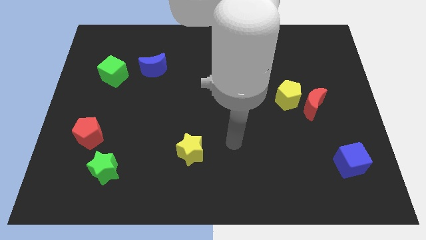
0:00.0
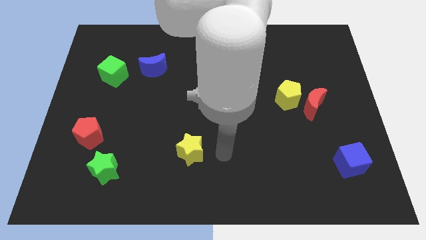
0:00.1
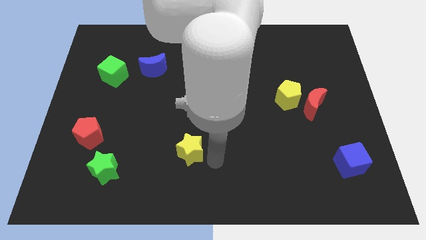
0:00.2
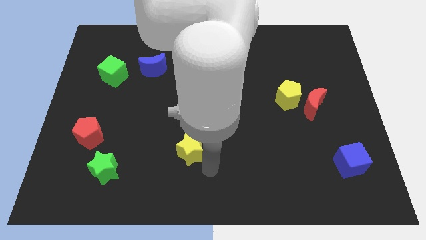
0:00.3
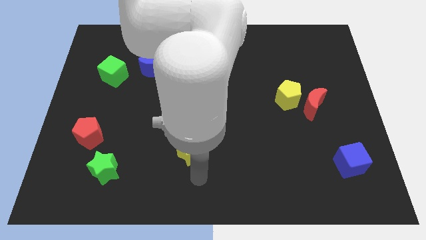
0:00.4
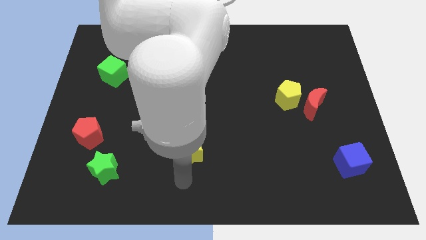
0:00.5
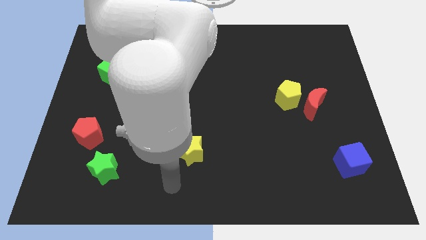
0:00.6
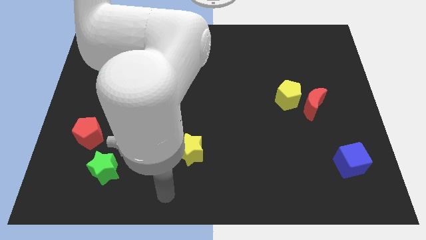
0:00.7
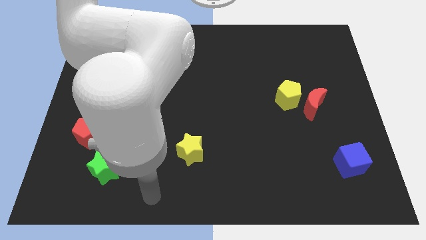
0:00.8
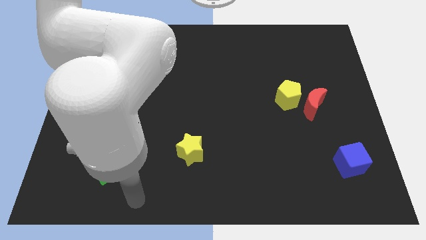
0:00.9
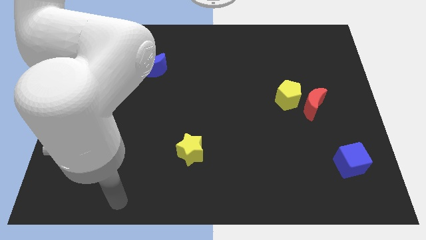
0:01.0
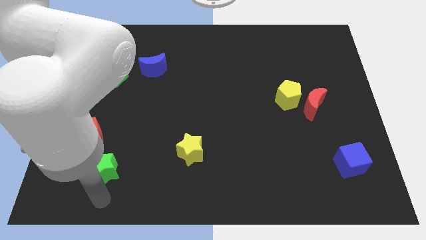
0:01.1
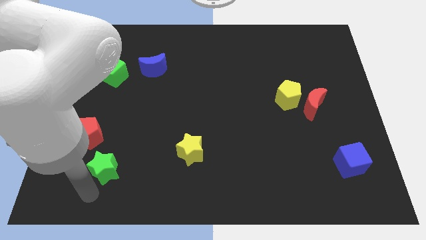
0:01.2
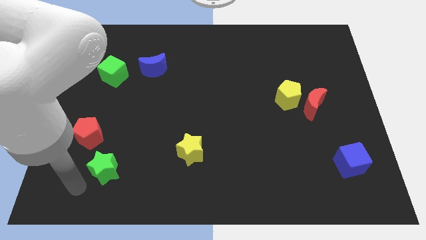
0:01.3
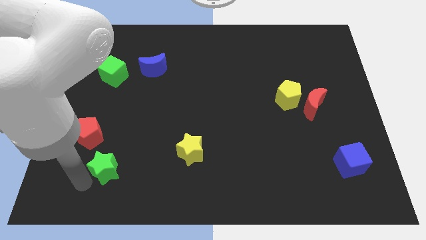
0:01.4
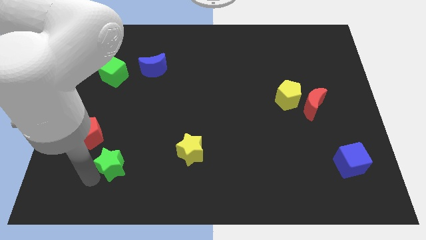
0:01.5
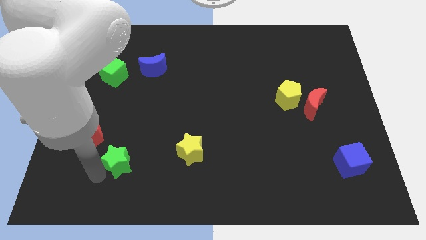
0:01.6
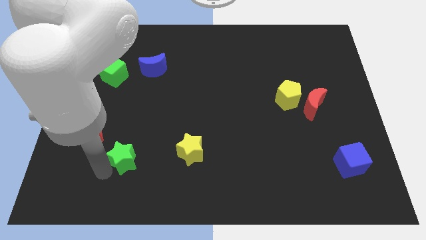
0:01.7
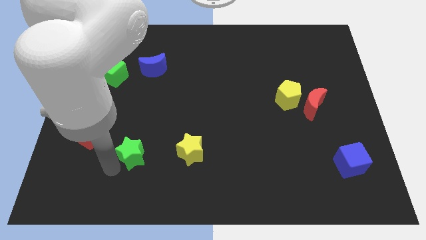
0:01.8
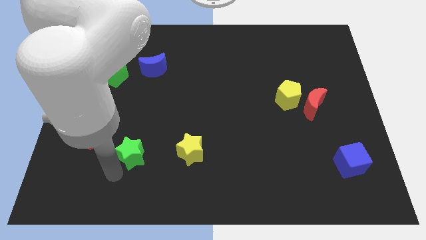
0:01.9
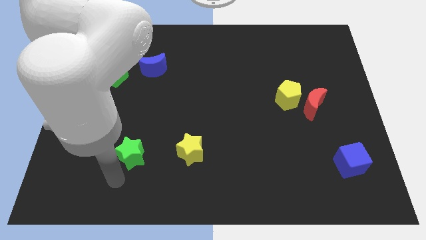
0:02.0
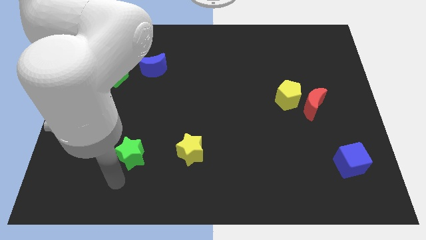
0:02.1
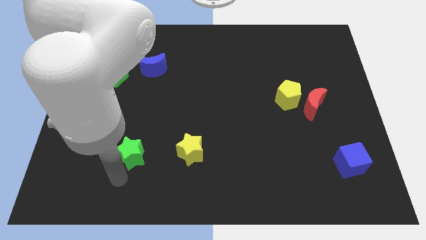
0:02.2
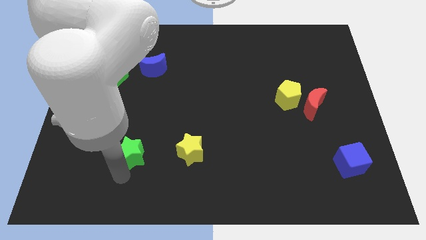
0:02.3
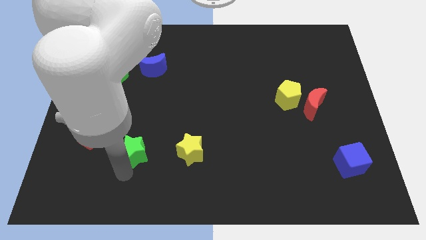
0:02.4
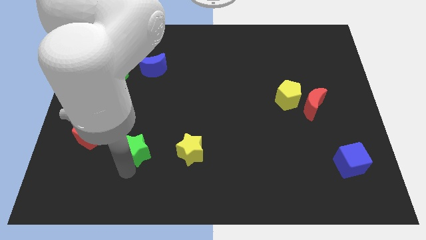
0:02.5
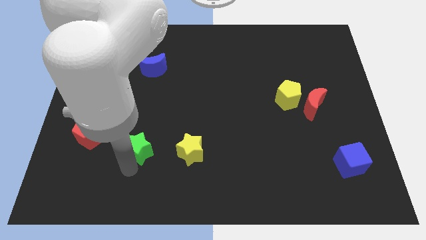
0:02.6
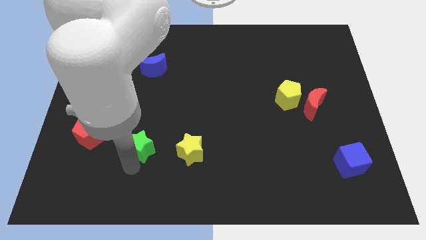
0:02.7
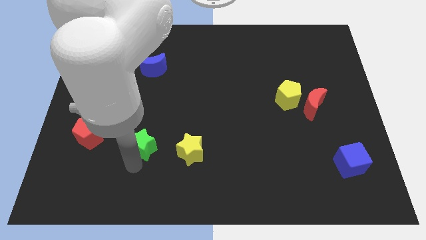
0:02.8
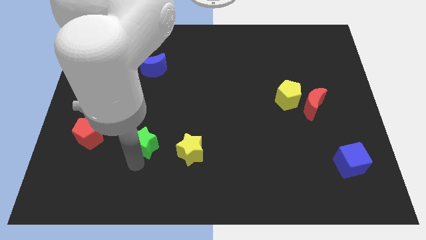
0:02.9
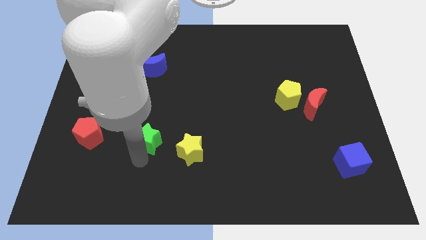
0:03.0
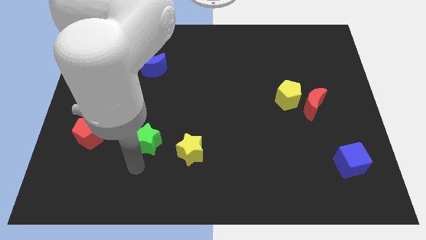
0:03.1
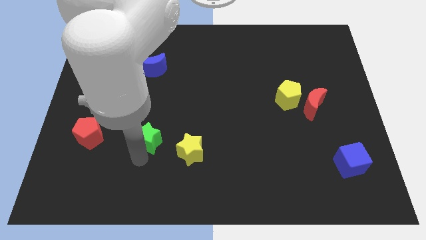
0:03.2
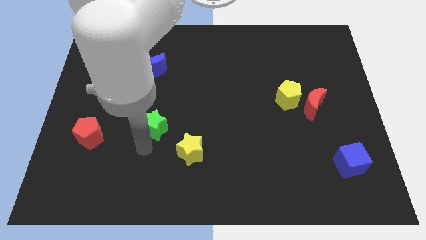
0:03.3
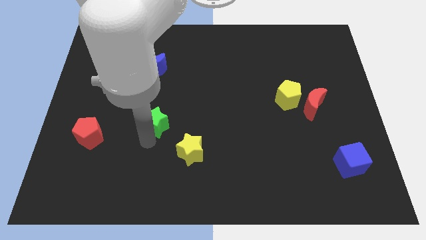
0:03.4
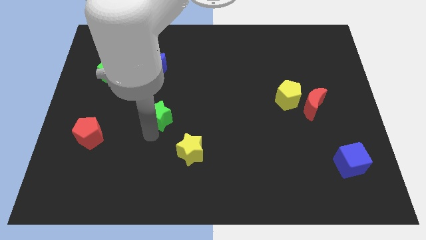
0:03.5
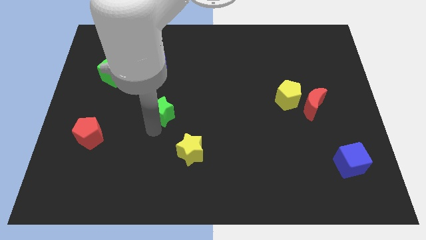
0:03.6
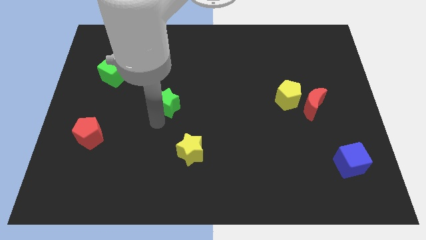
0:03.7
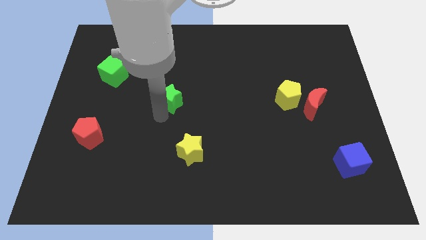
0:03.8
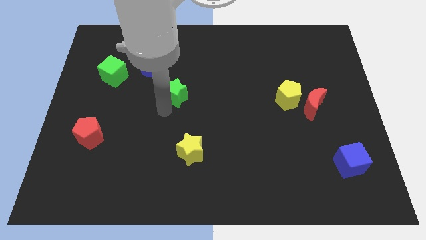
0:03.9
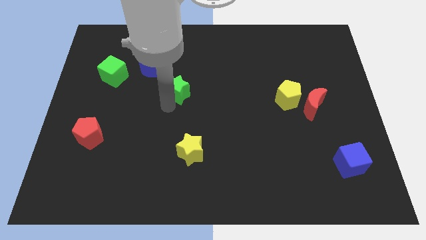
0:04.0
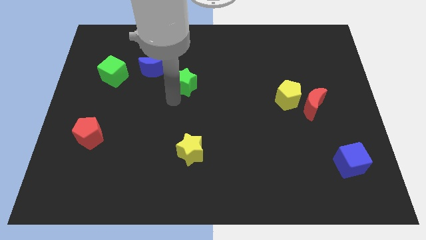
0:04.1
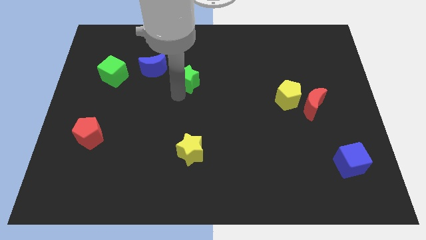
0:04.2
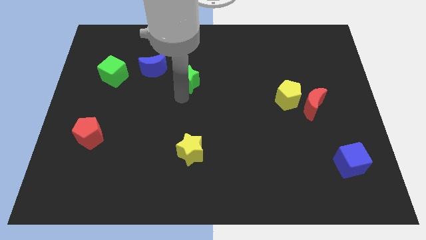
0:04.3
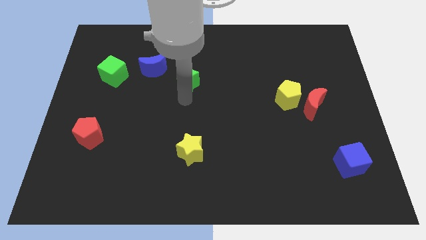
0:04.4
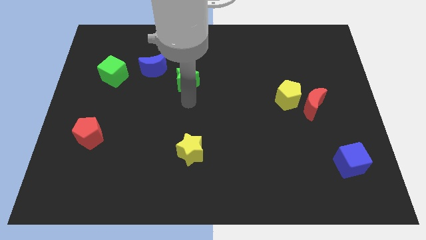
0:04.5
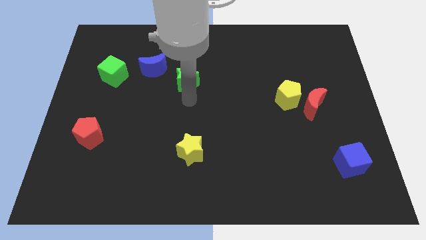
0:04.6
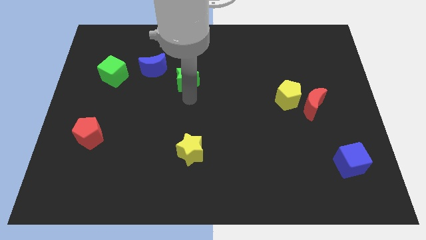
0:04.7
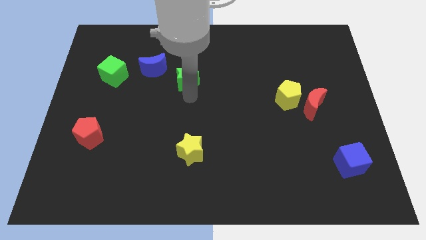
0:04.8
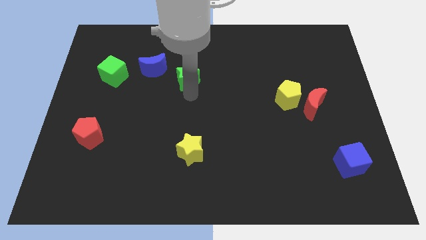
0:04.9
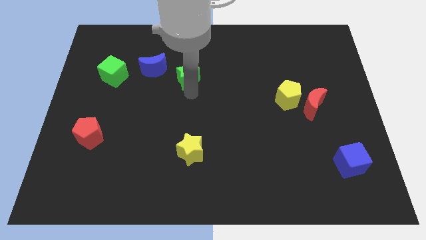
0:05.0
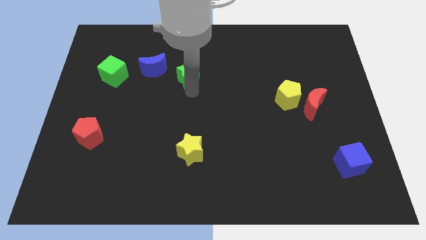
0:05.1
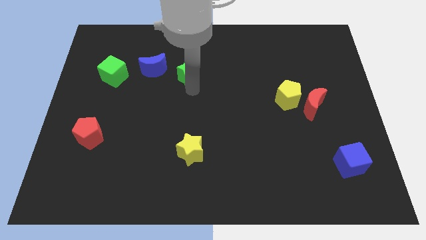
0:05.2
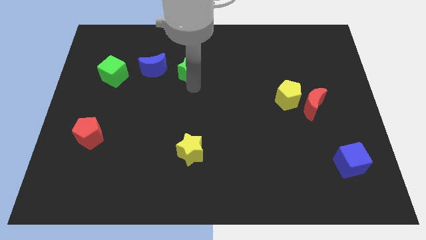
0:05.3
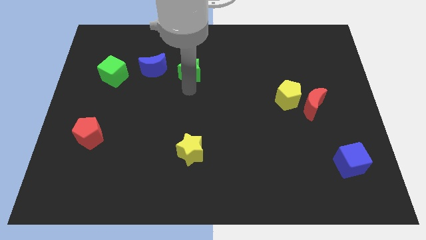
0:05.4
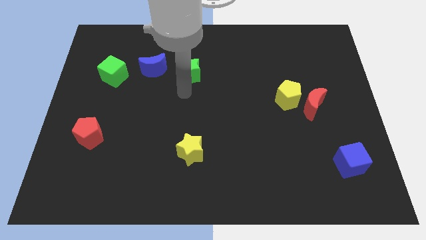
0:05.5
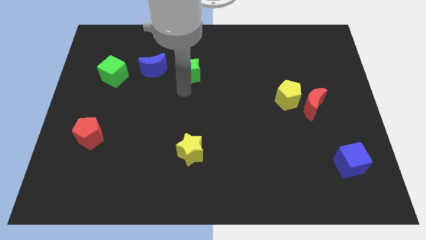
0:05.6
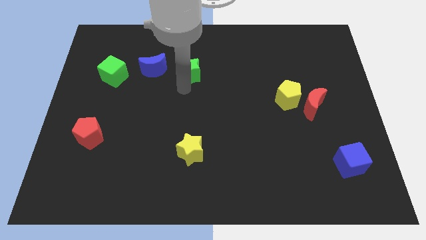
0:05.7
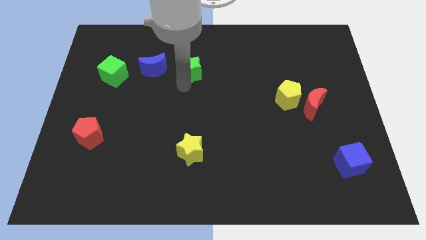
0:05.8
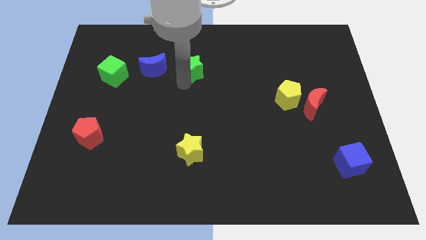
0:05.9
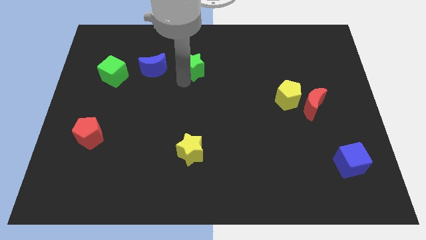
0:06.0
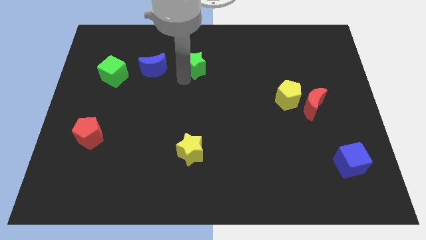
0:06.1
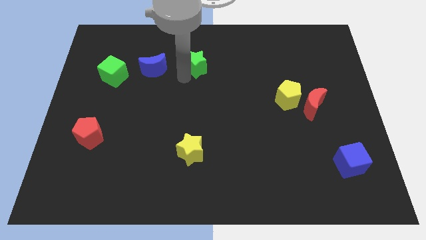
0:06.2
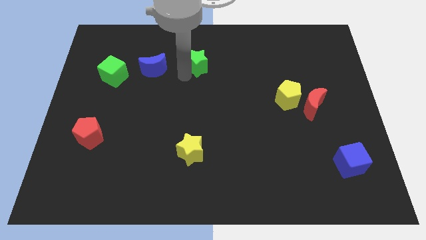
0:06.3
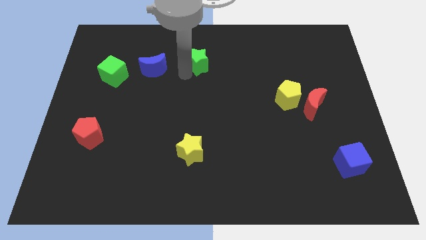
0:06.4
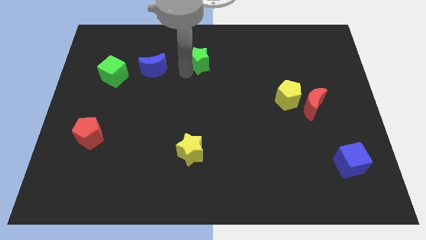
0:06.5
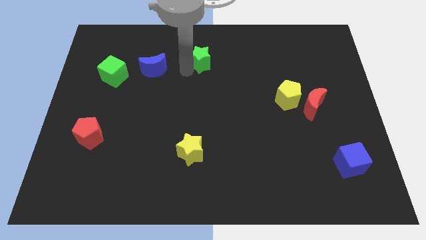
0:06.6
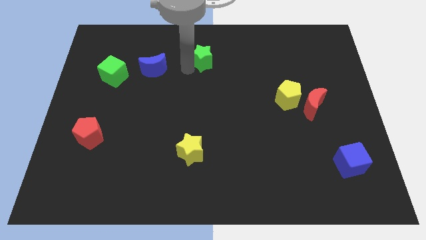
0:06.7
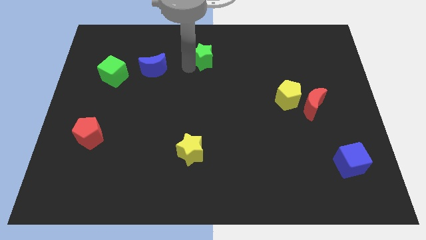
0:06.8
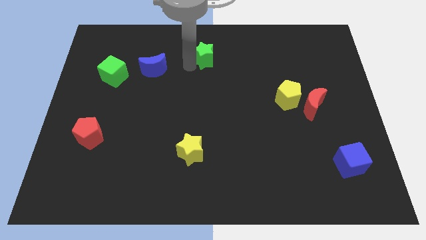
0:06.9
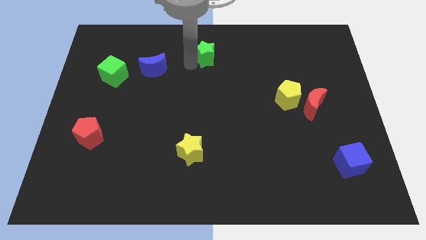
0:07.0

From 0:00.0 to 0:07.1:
move the green star to the top side
